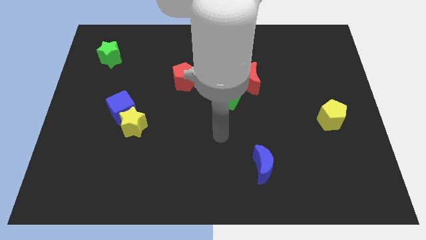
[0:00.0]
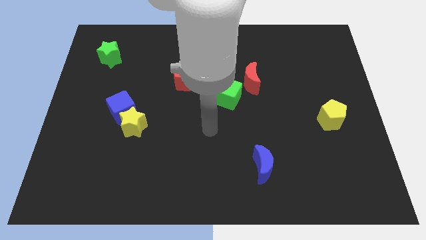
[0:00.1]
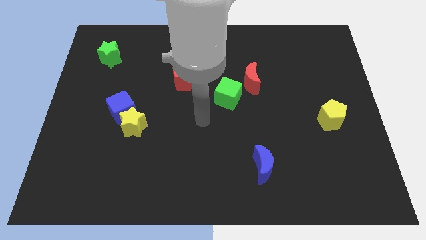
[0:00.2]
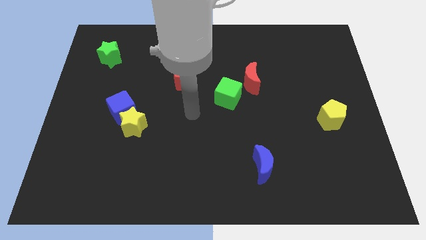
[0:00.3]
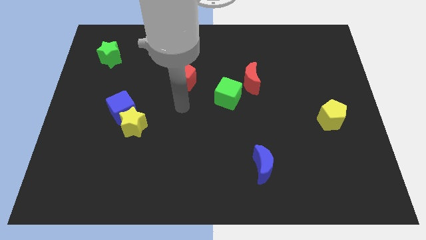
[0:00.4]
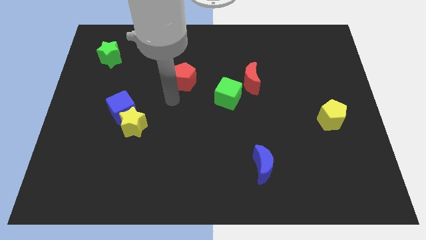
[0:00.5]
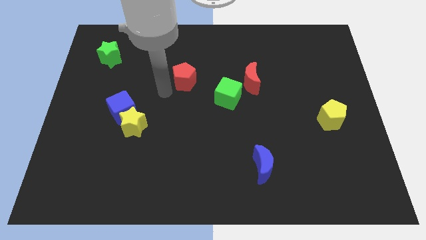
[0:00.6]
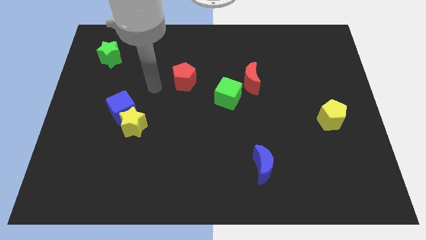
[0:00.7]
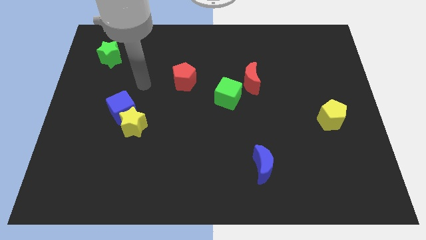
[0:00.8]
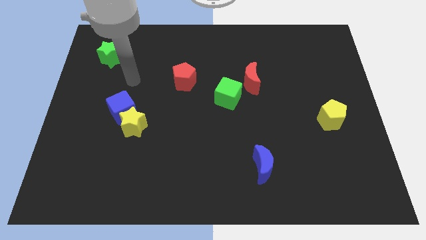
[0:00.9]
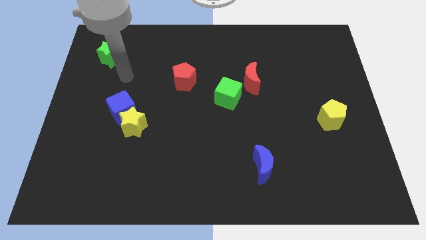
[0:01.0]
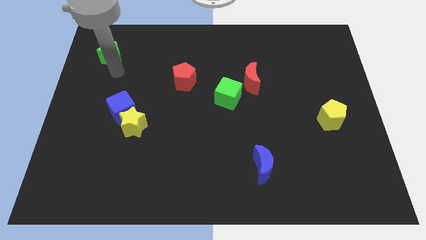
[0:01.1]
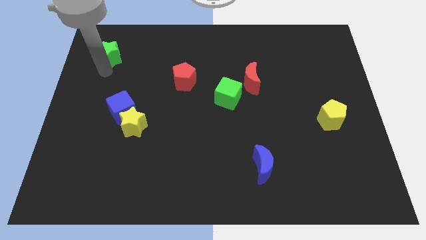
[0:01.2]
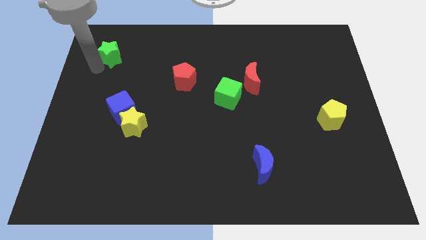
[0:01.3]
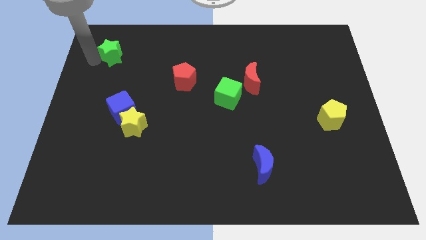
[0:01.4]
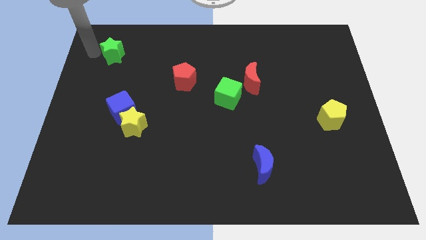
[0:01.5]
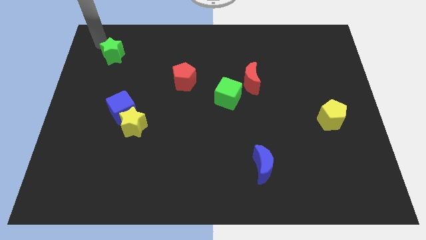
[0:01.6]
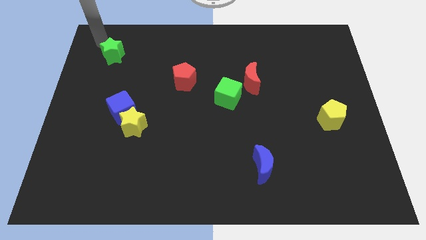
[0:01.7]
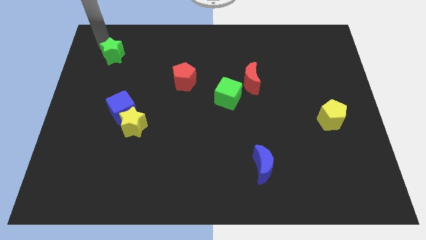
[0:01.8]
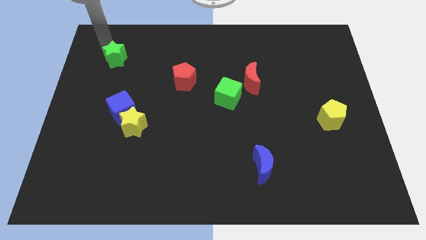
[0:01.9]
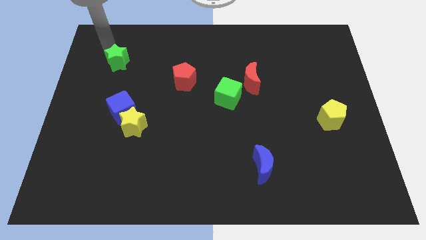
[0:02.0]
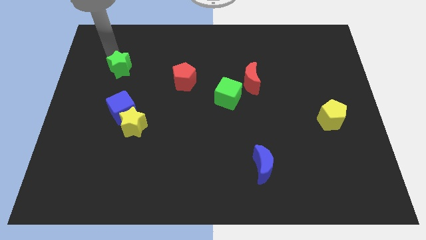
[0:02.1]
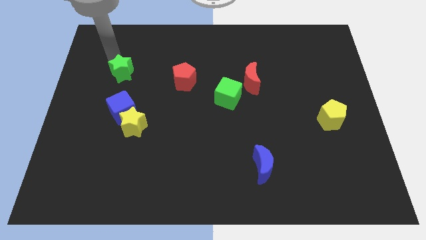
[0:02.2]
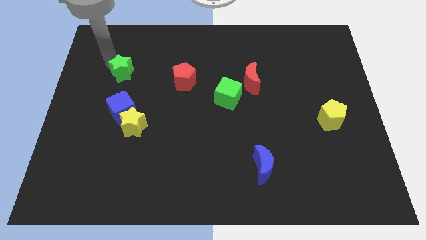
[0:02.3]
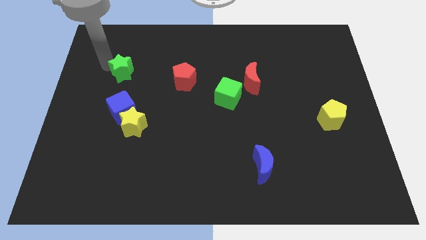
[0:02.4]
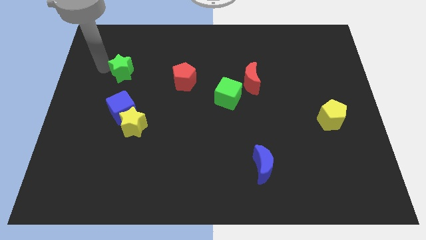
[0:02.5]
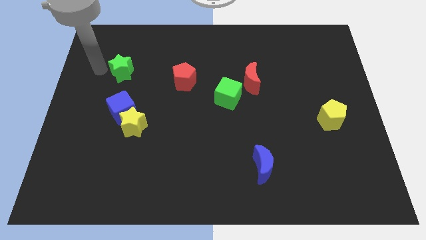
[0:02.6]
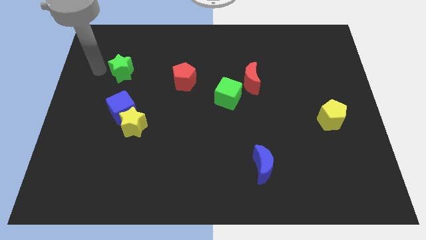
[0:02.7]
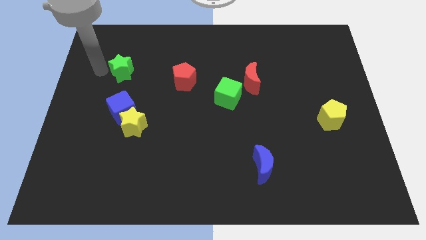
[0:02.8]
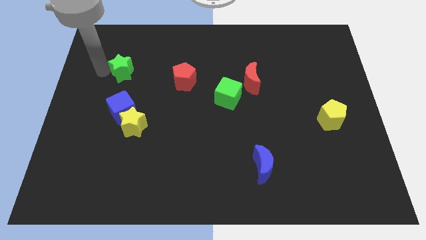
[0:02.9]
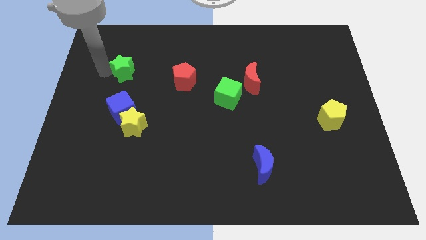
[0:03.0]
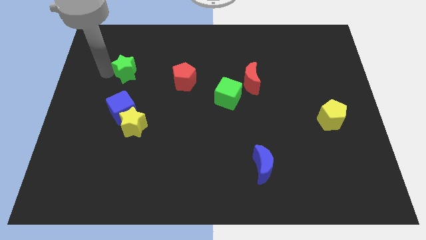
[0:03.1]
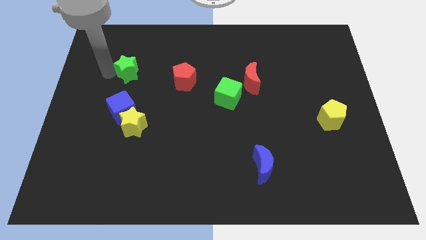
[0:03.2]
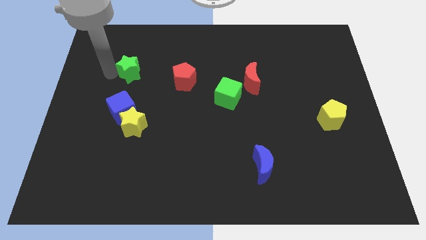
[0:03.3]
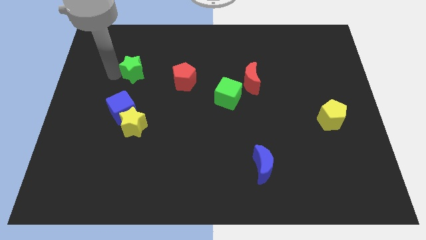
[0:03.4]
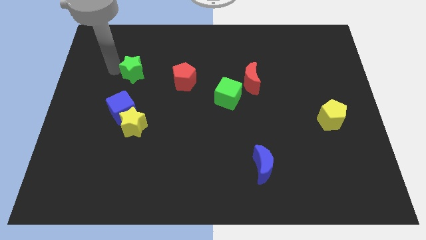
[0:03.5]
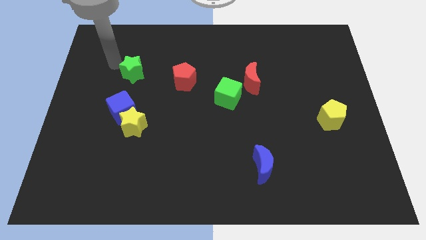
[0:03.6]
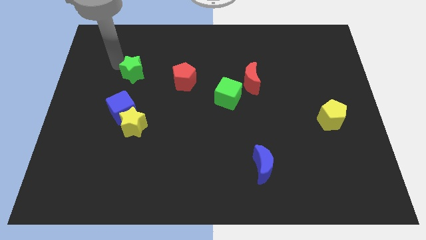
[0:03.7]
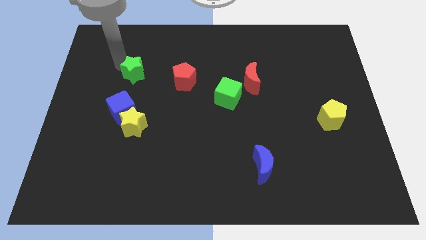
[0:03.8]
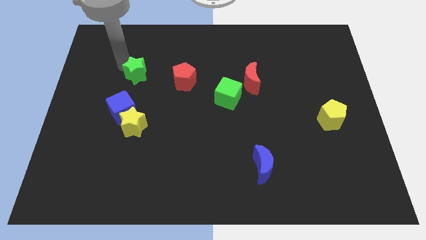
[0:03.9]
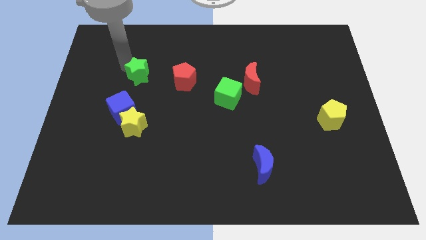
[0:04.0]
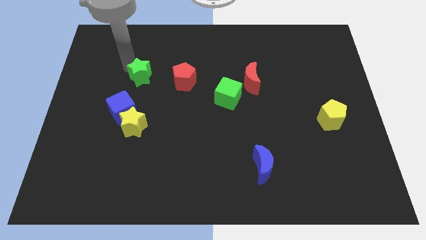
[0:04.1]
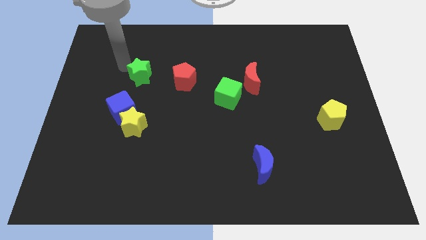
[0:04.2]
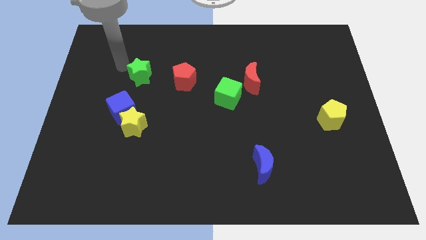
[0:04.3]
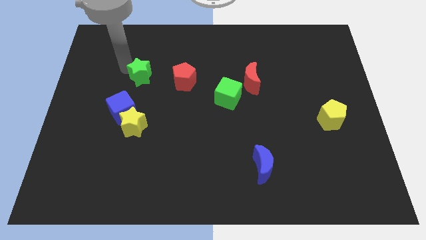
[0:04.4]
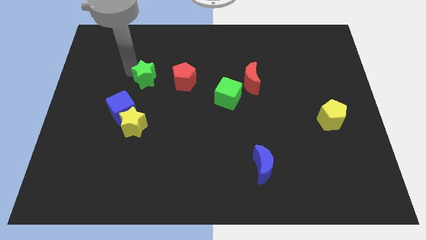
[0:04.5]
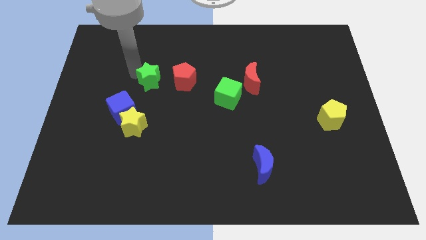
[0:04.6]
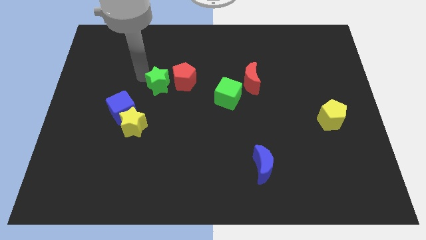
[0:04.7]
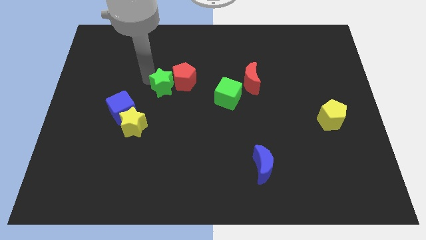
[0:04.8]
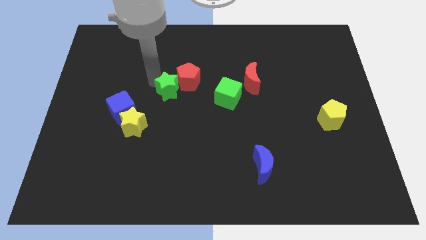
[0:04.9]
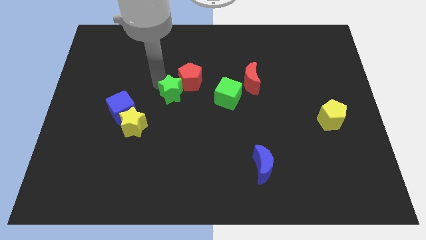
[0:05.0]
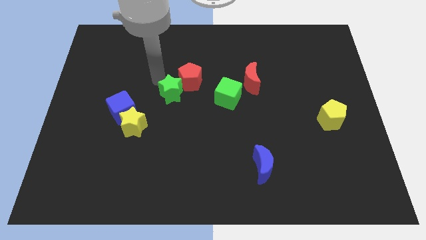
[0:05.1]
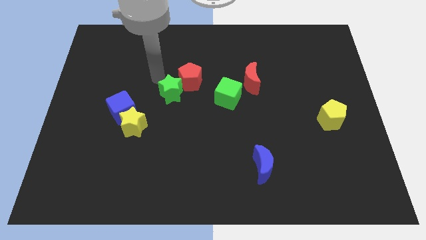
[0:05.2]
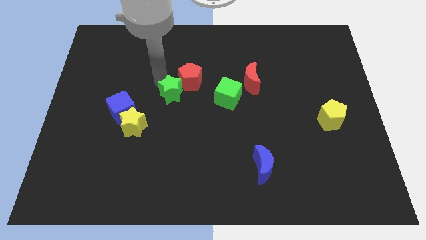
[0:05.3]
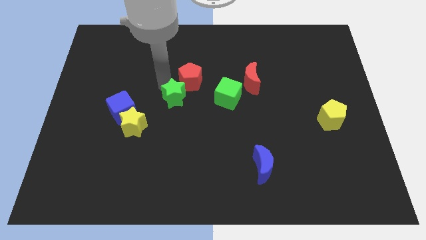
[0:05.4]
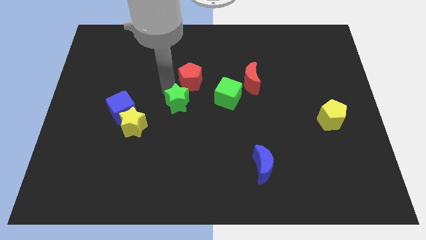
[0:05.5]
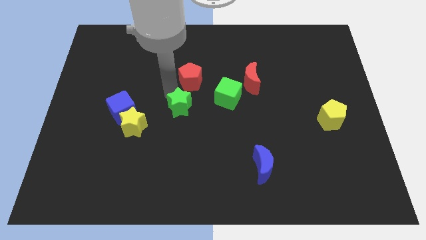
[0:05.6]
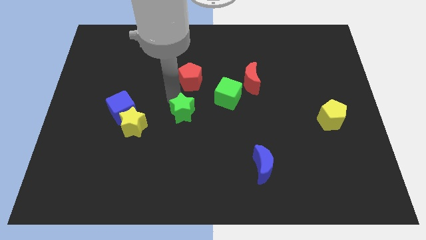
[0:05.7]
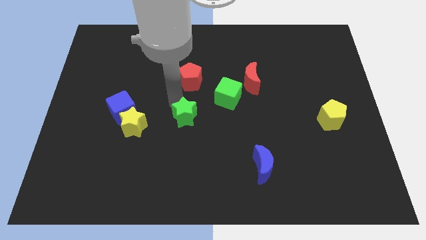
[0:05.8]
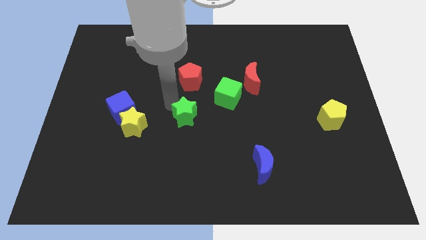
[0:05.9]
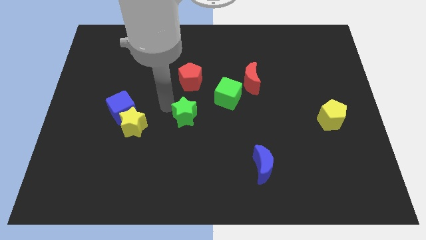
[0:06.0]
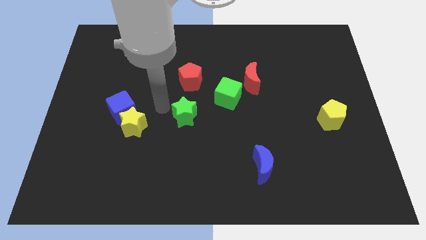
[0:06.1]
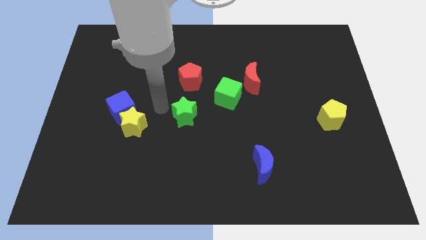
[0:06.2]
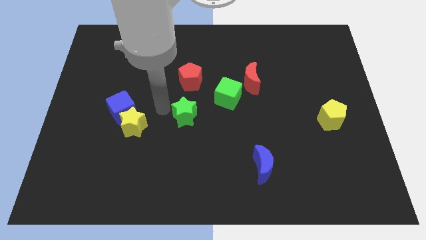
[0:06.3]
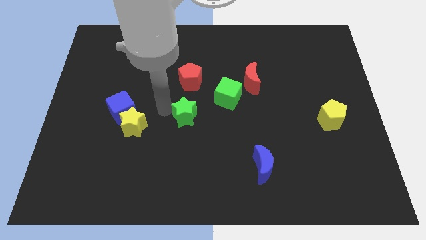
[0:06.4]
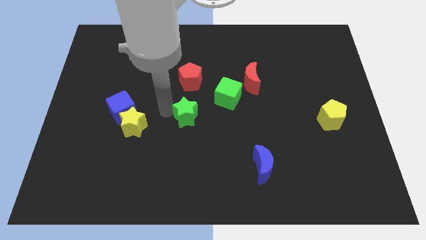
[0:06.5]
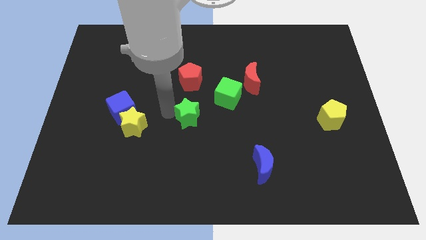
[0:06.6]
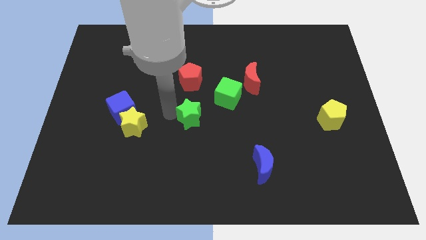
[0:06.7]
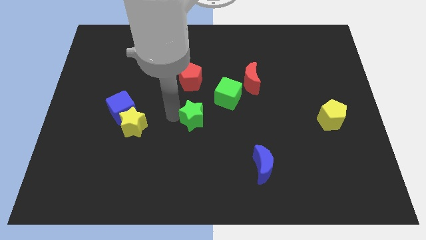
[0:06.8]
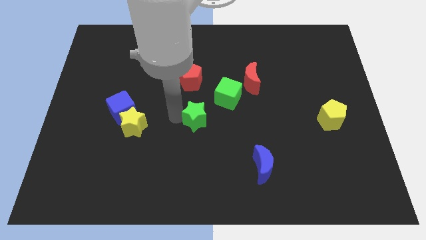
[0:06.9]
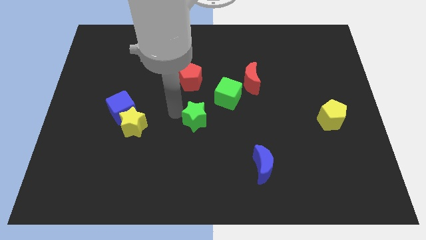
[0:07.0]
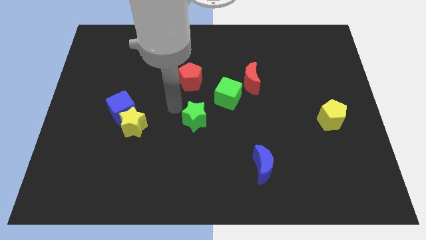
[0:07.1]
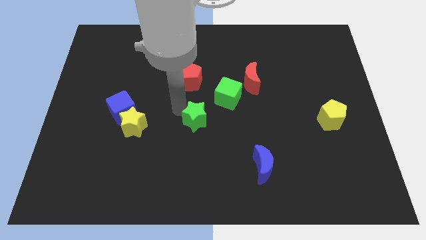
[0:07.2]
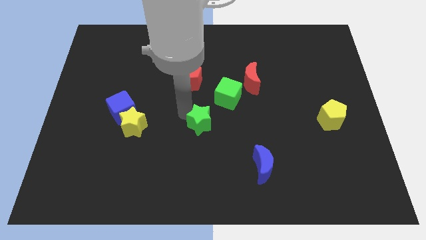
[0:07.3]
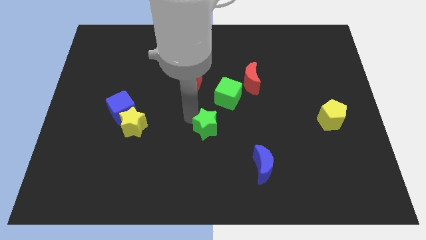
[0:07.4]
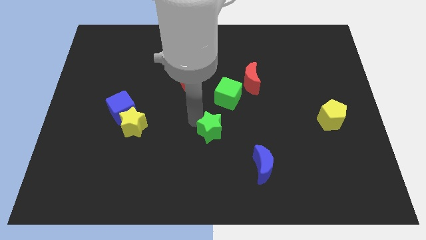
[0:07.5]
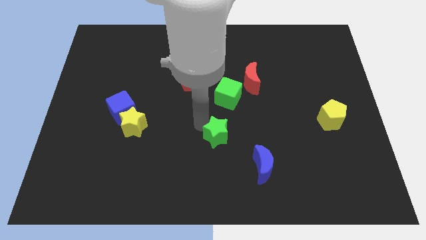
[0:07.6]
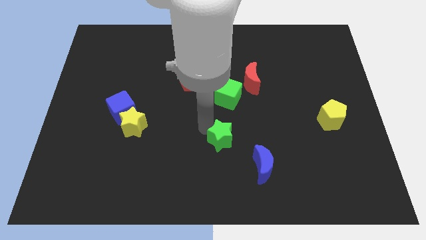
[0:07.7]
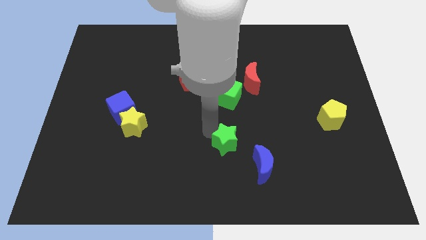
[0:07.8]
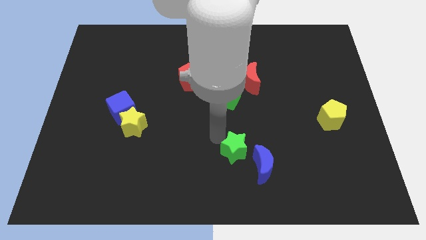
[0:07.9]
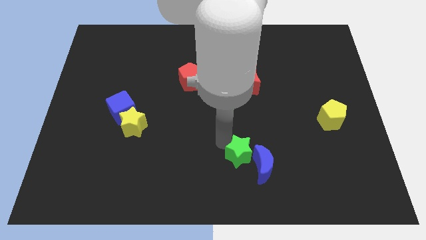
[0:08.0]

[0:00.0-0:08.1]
push the green star to the blue moon

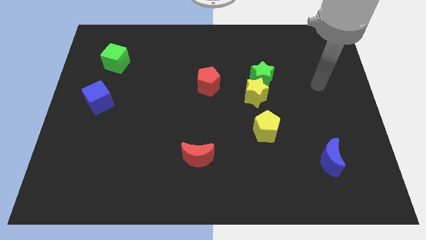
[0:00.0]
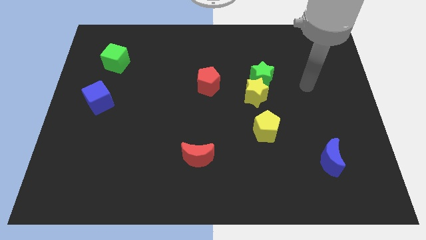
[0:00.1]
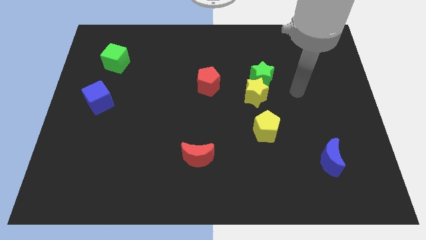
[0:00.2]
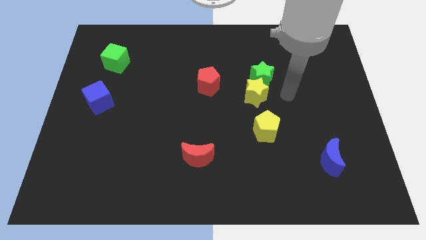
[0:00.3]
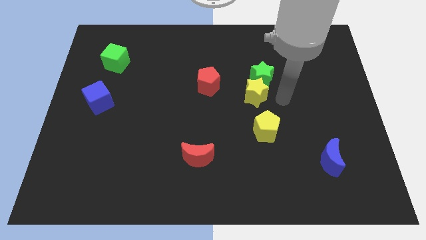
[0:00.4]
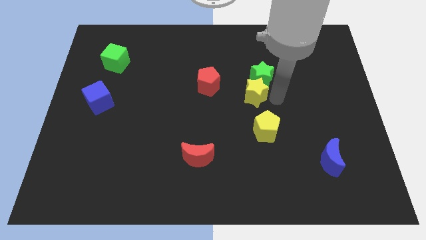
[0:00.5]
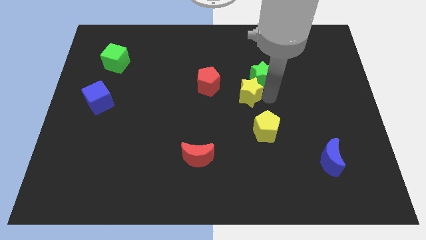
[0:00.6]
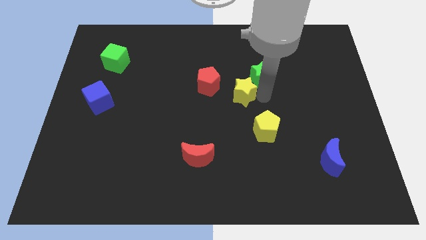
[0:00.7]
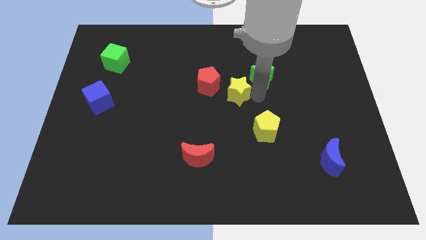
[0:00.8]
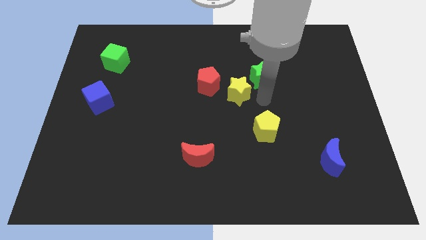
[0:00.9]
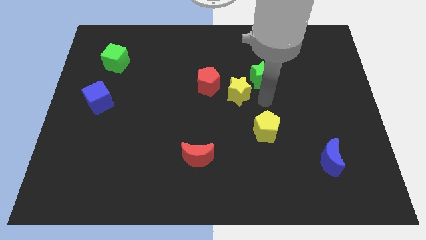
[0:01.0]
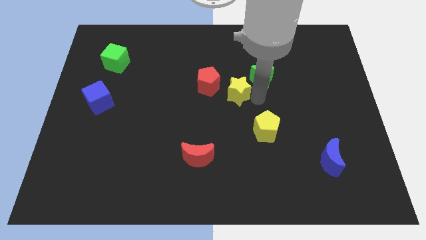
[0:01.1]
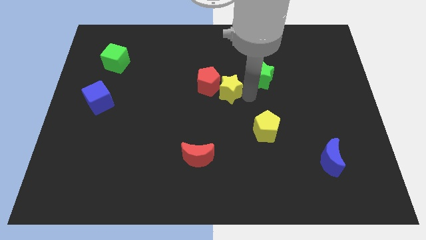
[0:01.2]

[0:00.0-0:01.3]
push the yellow star close to the red pentagon
